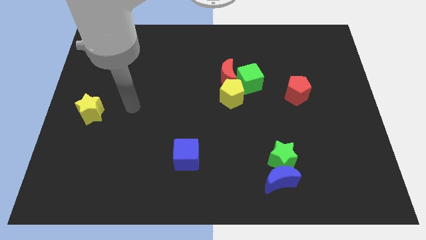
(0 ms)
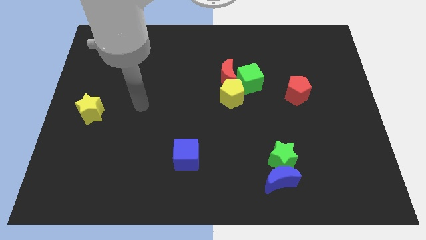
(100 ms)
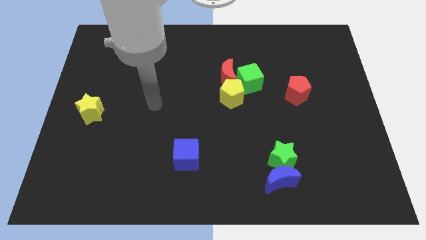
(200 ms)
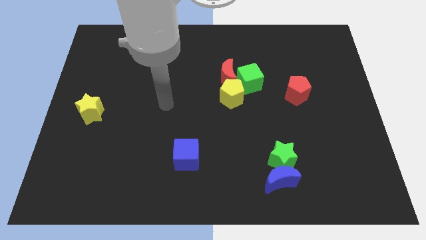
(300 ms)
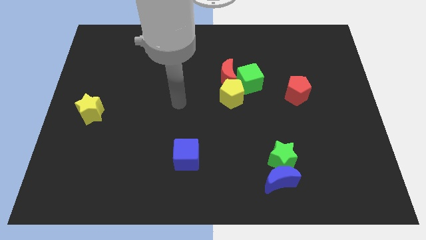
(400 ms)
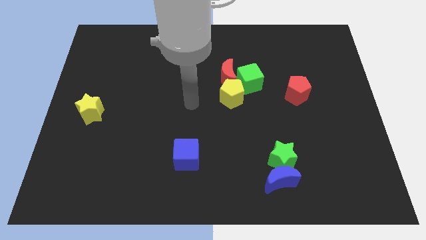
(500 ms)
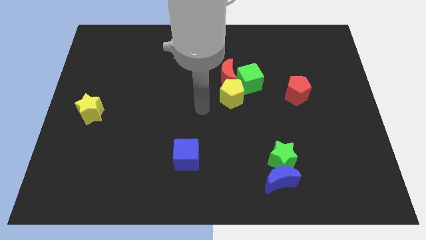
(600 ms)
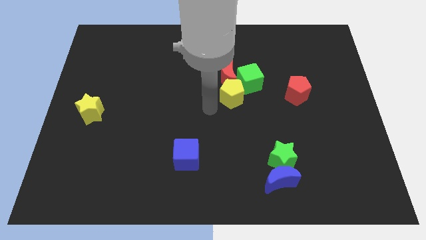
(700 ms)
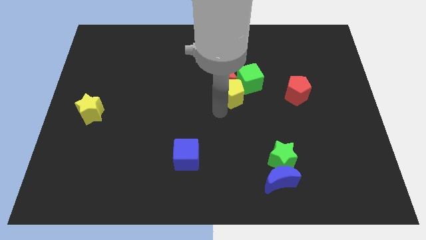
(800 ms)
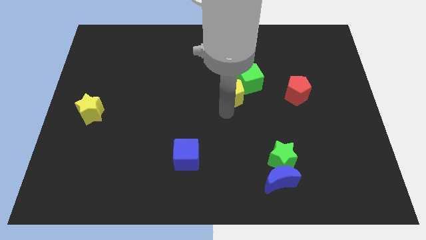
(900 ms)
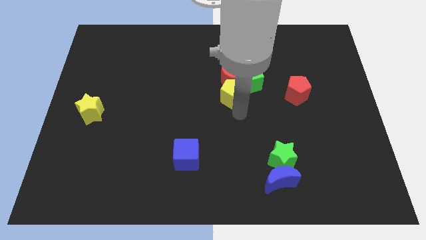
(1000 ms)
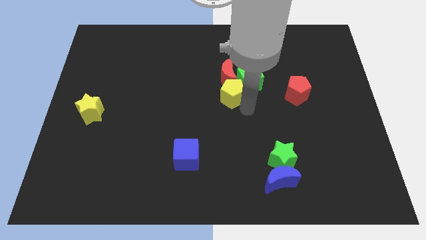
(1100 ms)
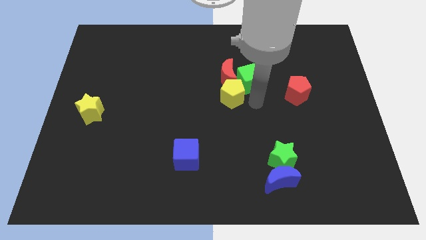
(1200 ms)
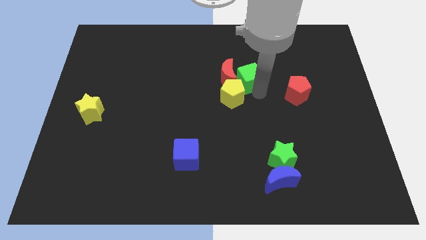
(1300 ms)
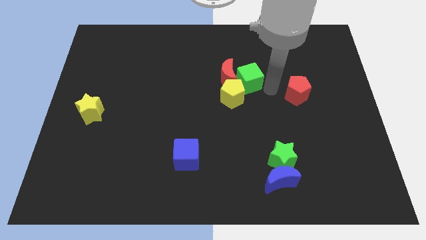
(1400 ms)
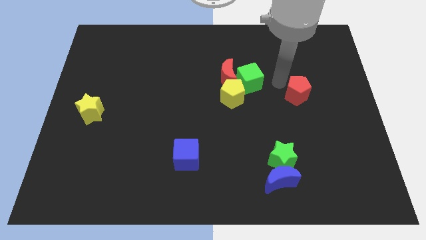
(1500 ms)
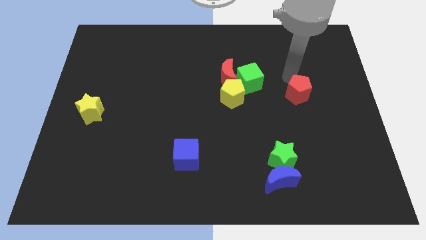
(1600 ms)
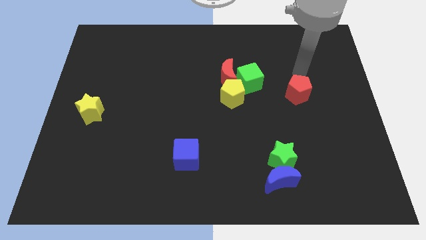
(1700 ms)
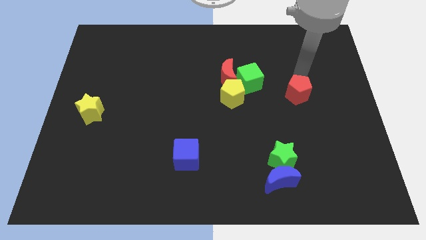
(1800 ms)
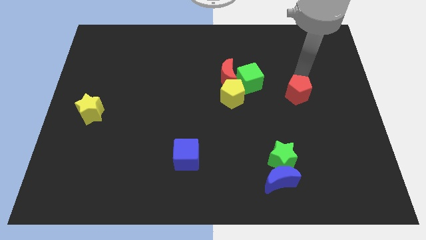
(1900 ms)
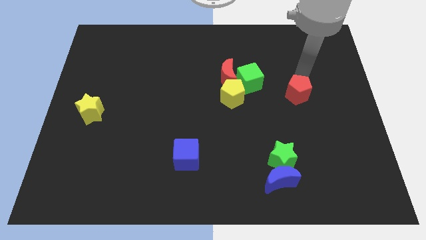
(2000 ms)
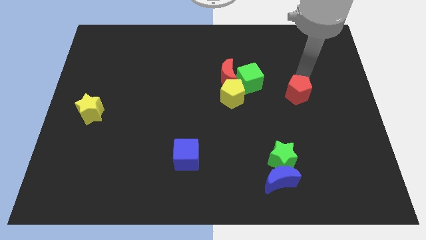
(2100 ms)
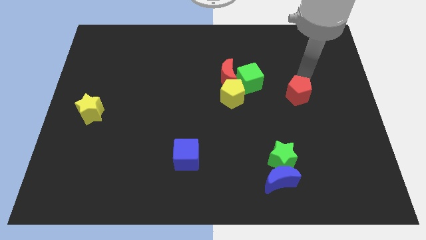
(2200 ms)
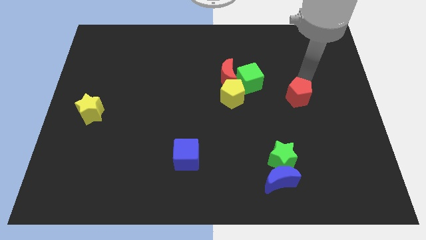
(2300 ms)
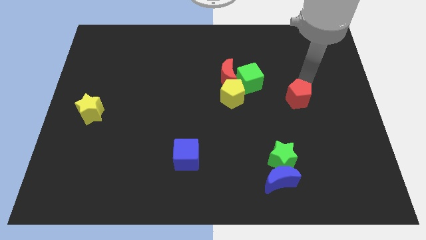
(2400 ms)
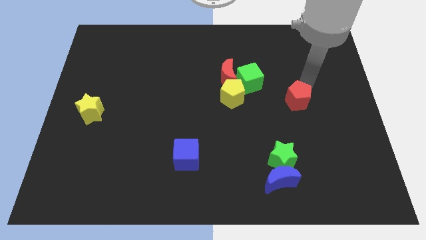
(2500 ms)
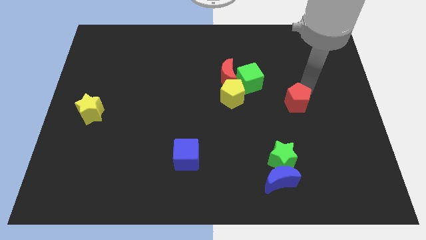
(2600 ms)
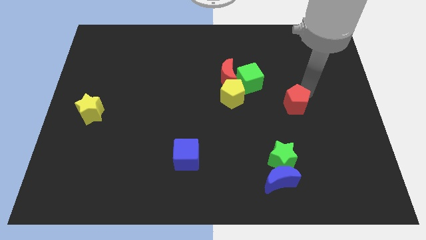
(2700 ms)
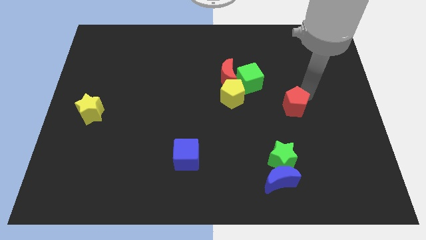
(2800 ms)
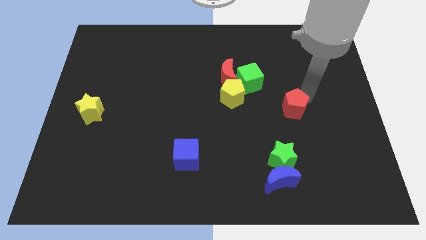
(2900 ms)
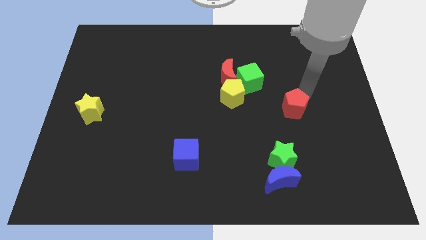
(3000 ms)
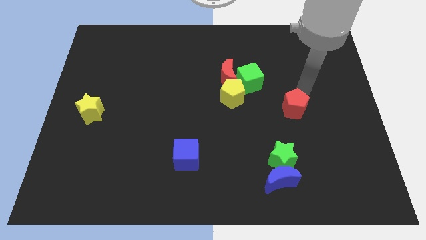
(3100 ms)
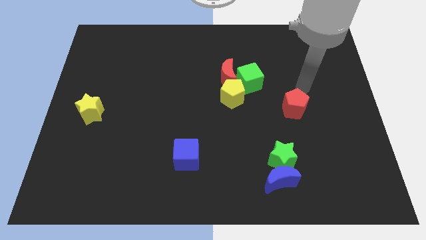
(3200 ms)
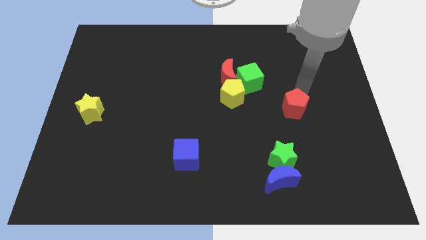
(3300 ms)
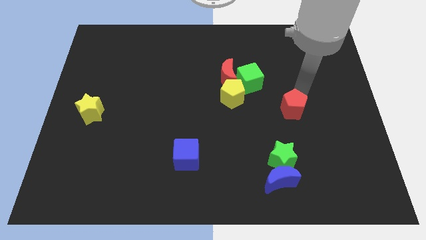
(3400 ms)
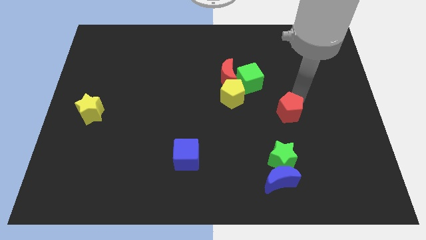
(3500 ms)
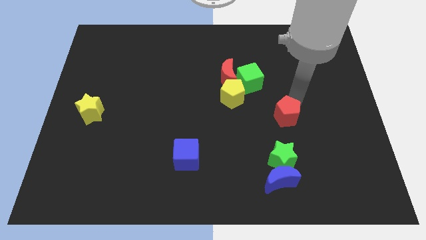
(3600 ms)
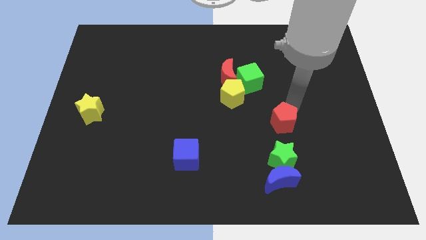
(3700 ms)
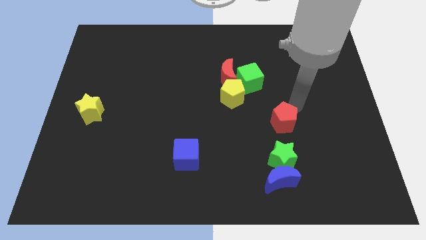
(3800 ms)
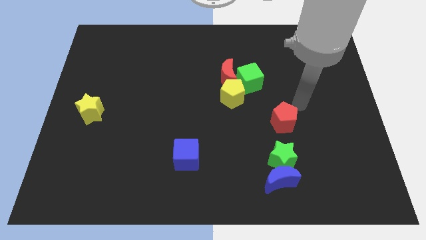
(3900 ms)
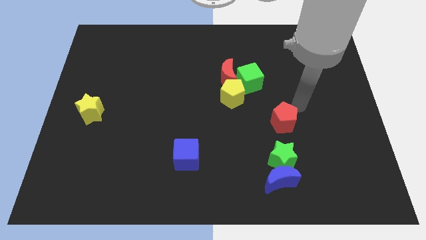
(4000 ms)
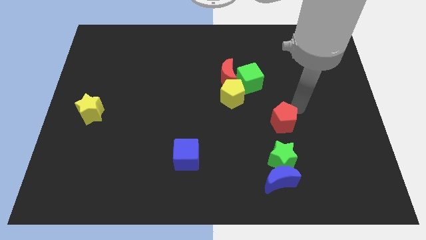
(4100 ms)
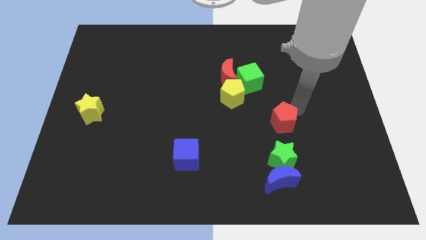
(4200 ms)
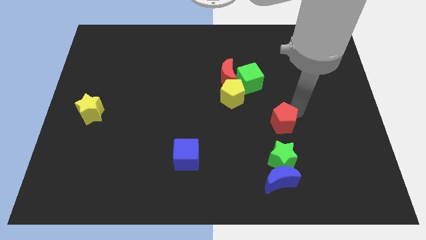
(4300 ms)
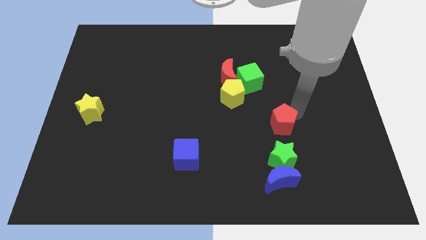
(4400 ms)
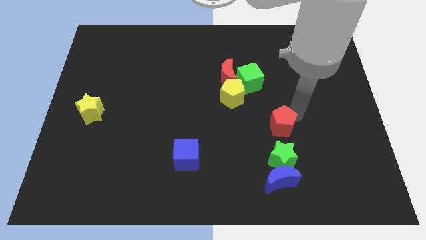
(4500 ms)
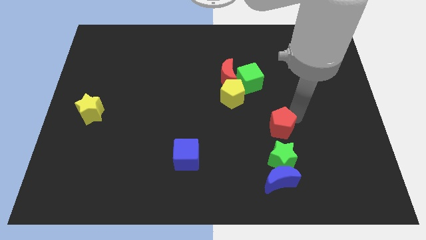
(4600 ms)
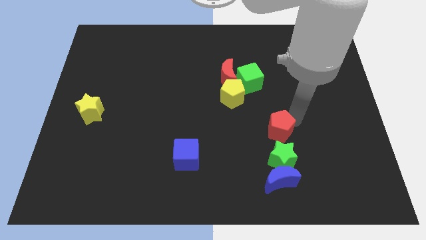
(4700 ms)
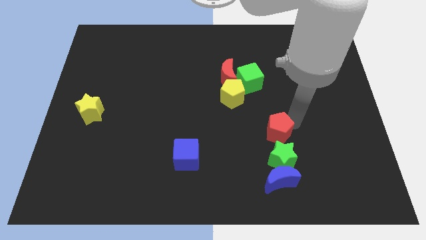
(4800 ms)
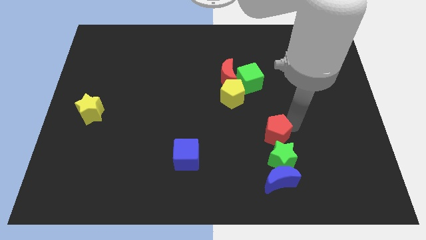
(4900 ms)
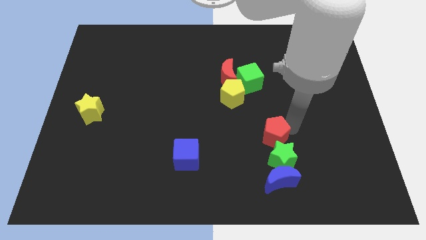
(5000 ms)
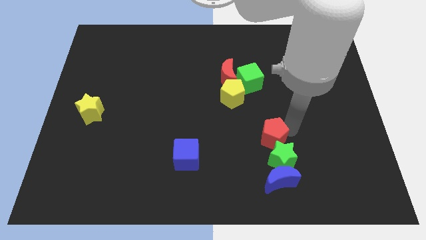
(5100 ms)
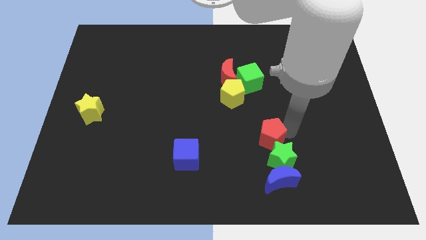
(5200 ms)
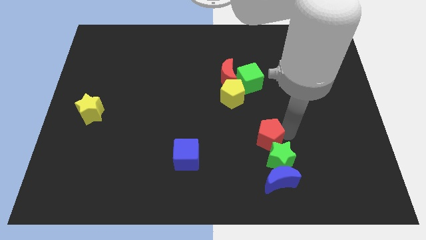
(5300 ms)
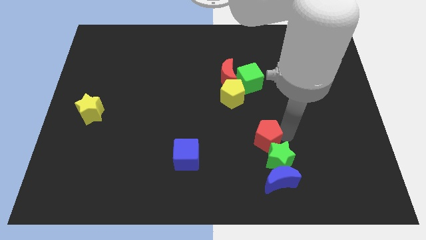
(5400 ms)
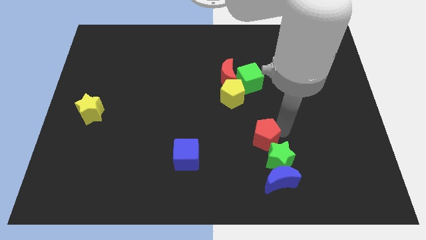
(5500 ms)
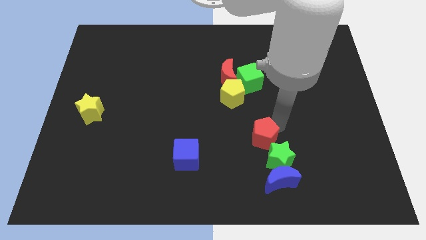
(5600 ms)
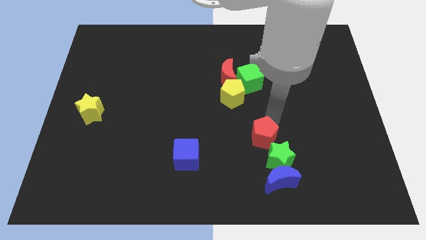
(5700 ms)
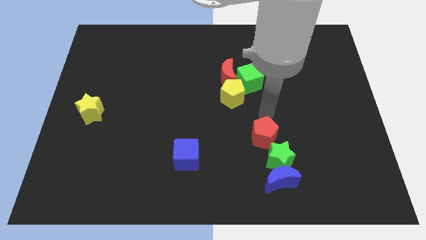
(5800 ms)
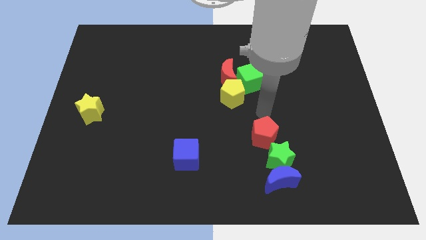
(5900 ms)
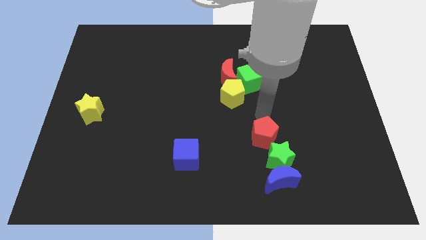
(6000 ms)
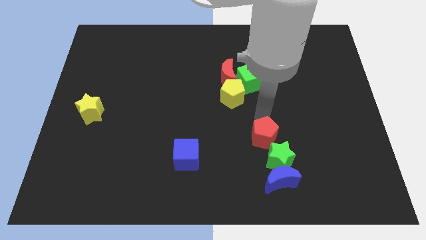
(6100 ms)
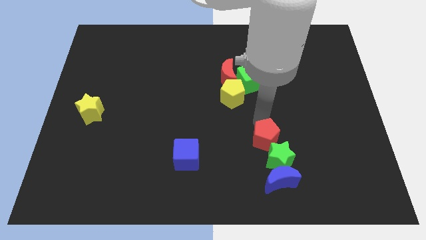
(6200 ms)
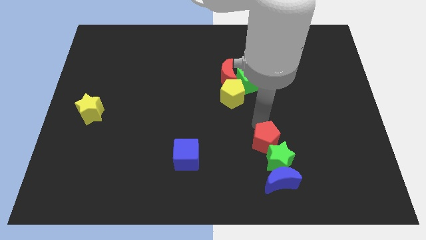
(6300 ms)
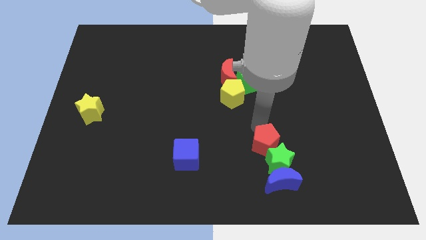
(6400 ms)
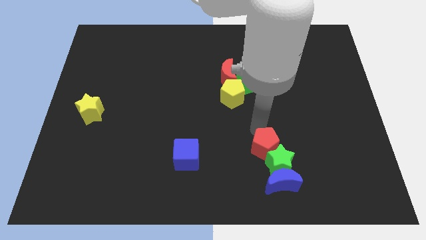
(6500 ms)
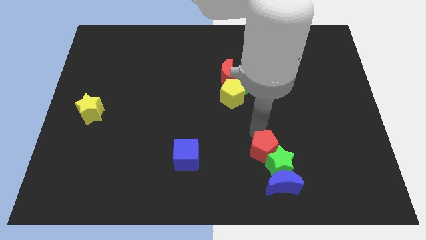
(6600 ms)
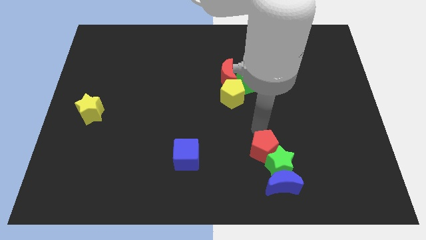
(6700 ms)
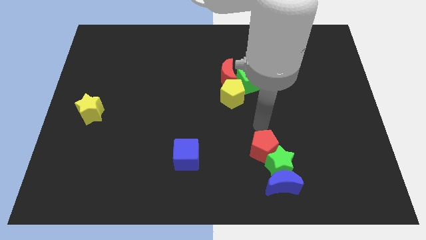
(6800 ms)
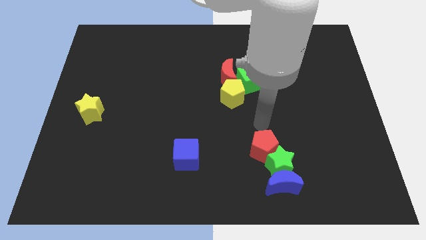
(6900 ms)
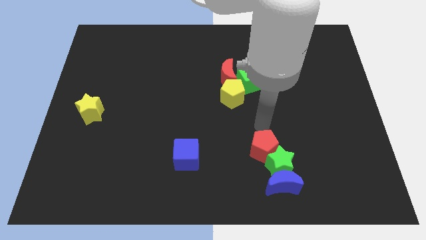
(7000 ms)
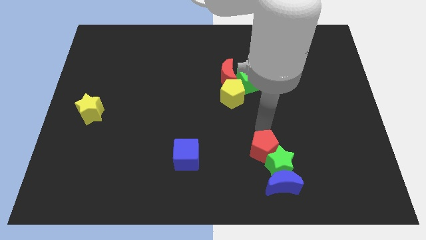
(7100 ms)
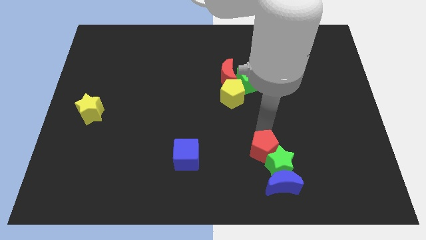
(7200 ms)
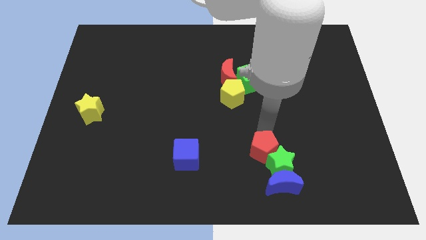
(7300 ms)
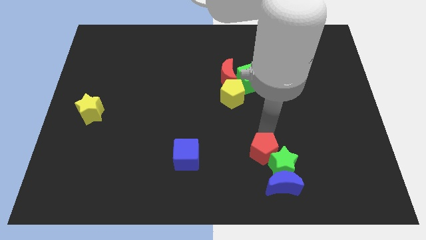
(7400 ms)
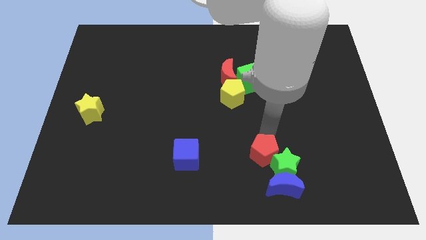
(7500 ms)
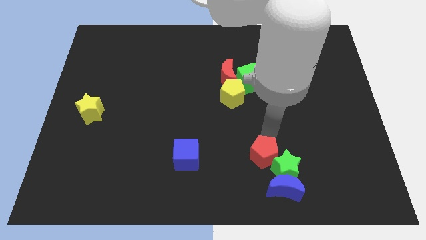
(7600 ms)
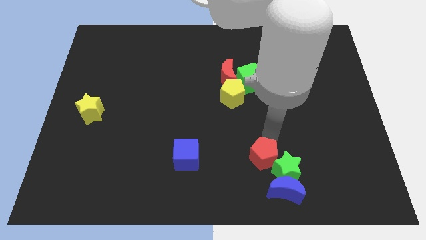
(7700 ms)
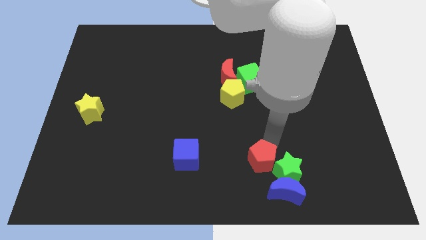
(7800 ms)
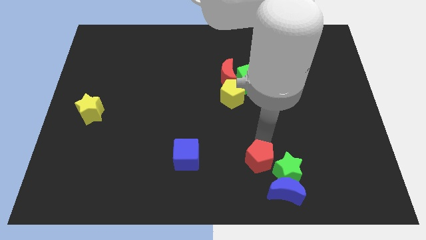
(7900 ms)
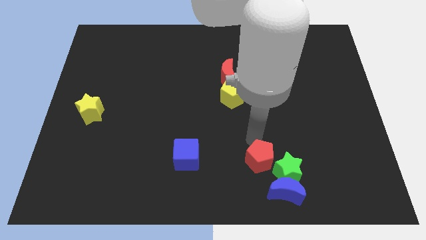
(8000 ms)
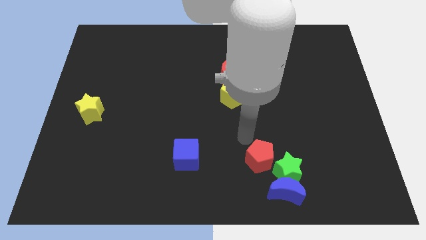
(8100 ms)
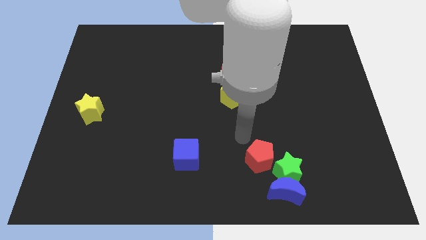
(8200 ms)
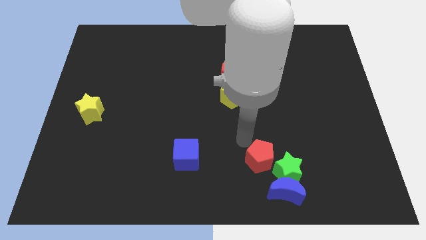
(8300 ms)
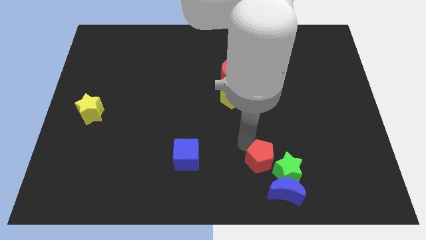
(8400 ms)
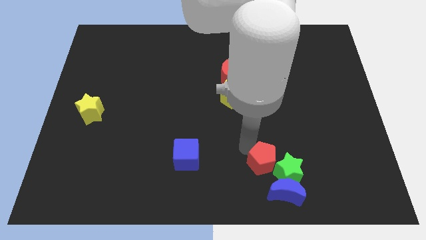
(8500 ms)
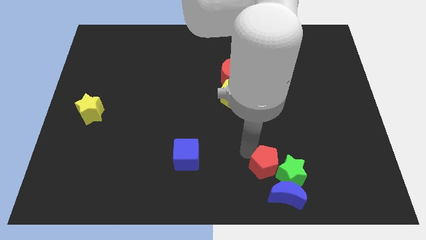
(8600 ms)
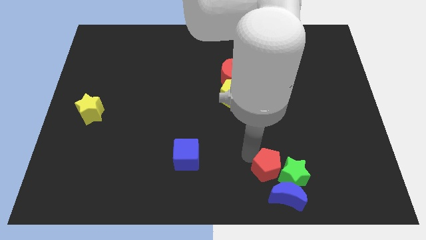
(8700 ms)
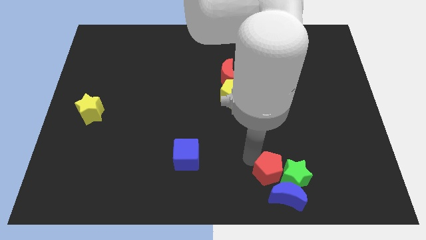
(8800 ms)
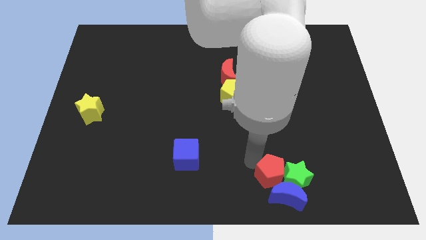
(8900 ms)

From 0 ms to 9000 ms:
push the red pentagon close to the blue moon
